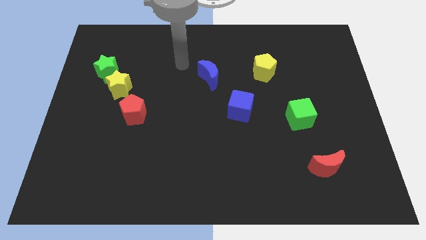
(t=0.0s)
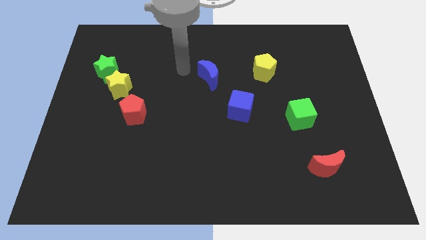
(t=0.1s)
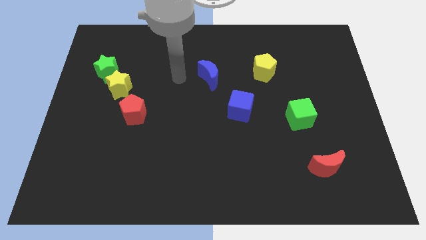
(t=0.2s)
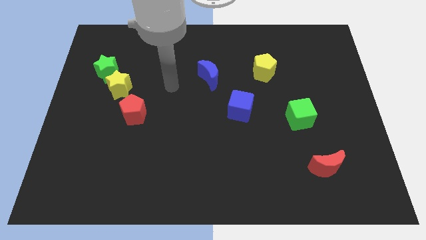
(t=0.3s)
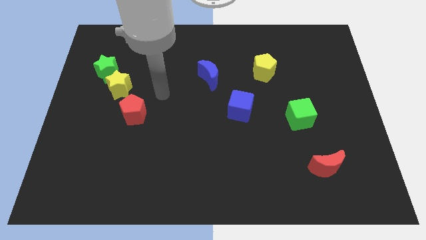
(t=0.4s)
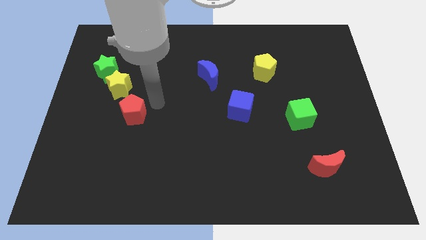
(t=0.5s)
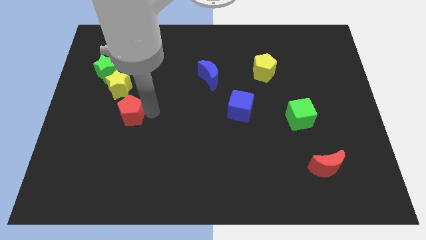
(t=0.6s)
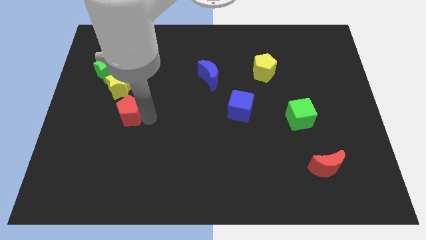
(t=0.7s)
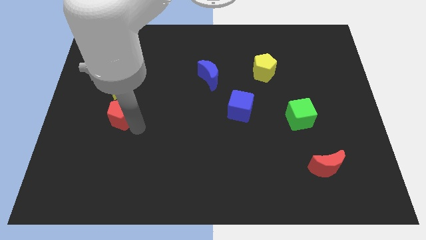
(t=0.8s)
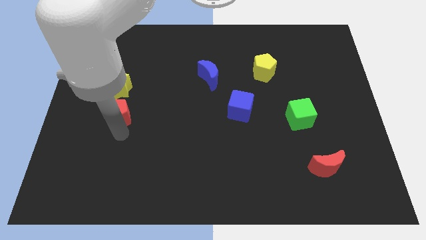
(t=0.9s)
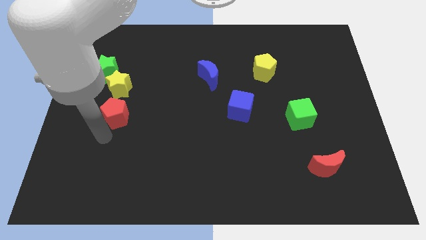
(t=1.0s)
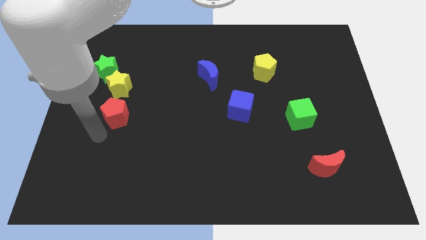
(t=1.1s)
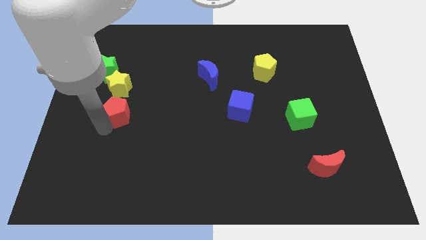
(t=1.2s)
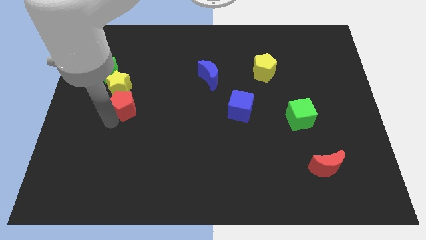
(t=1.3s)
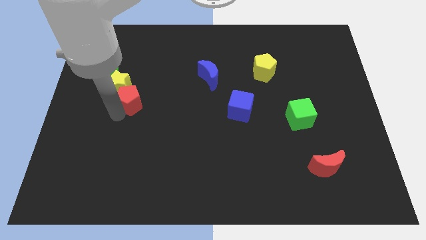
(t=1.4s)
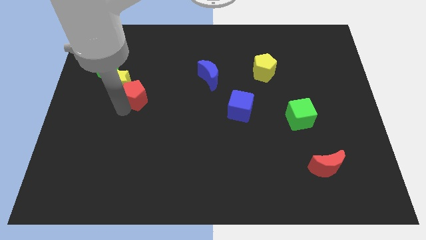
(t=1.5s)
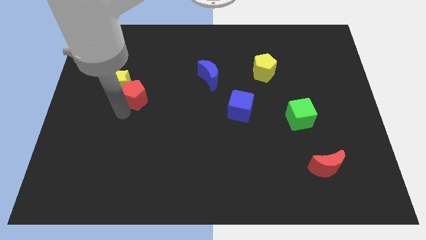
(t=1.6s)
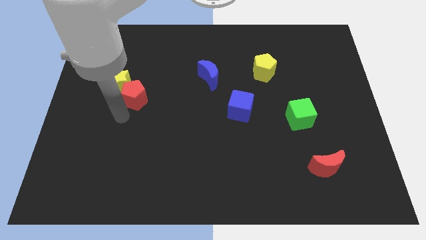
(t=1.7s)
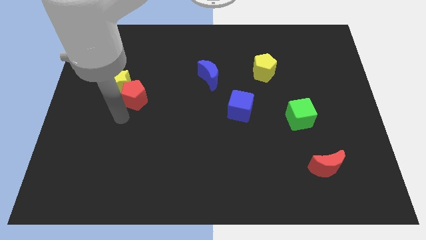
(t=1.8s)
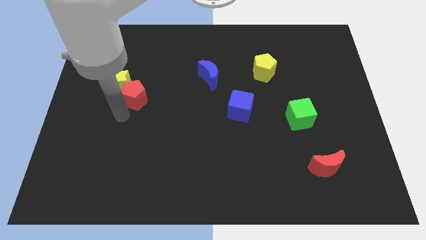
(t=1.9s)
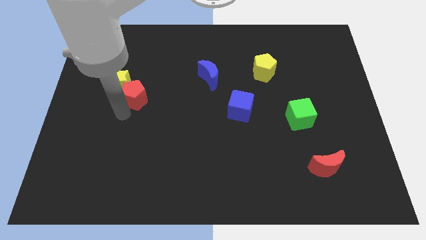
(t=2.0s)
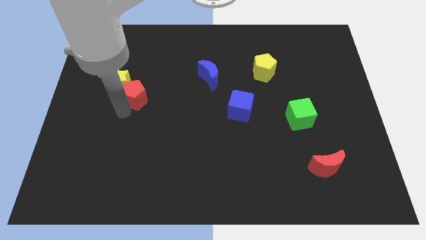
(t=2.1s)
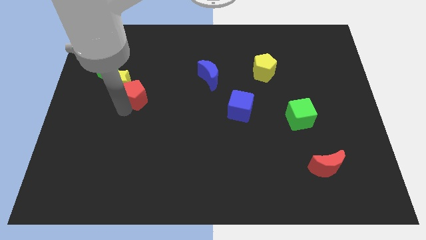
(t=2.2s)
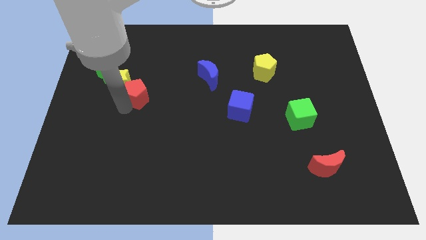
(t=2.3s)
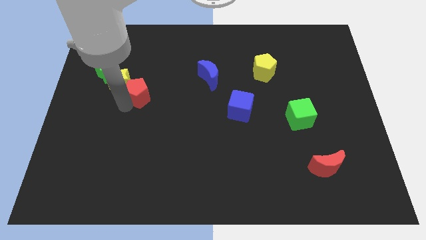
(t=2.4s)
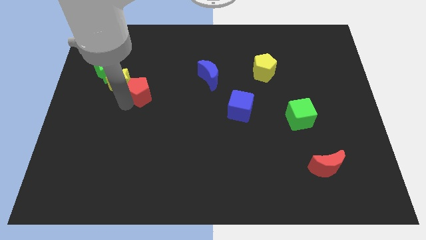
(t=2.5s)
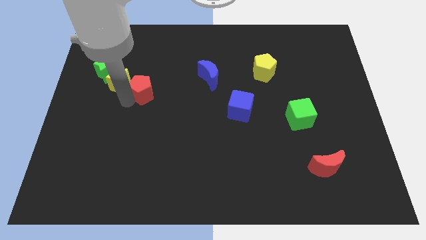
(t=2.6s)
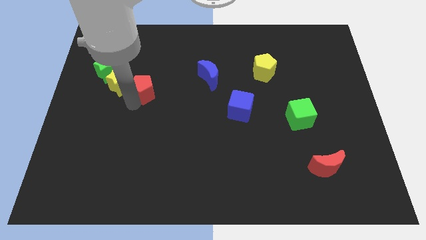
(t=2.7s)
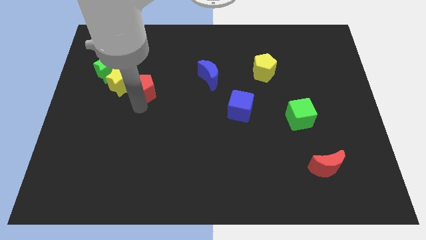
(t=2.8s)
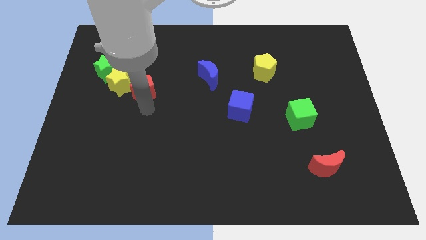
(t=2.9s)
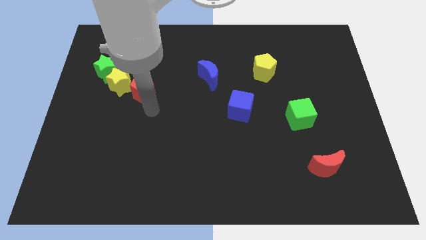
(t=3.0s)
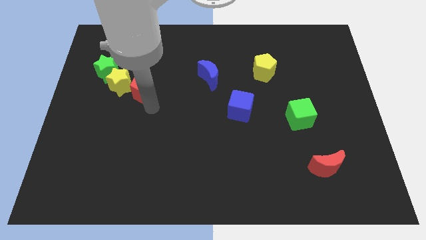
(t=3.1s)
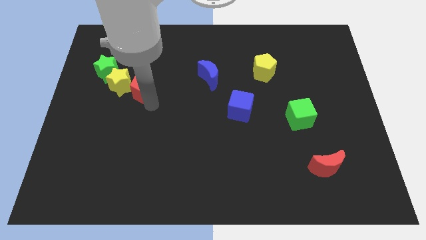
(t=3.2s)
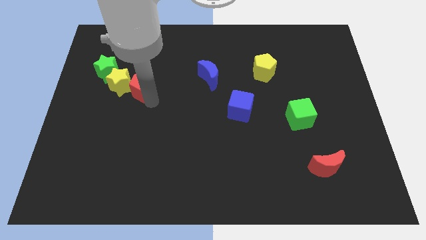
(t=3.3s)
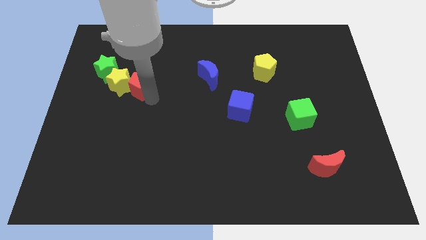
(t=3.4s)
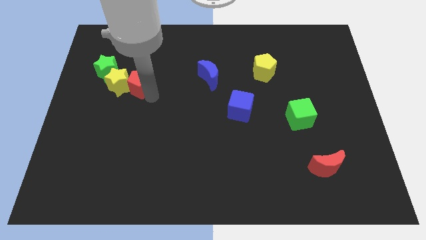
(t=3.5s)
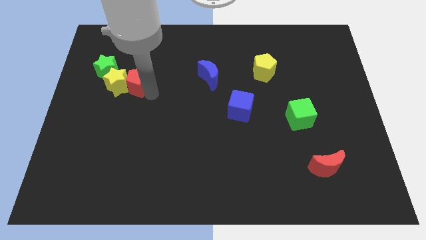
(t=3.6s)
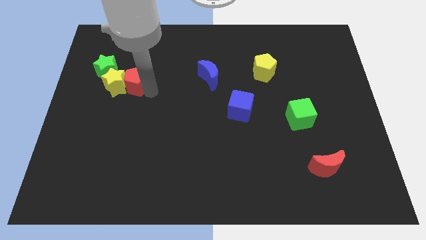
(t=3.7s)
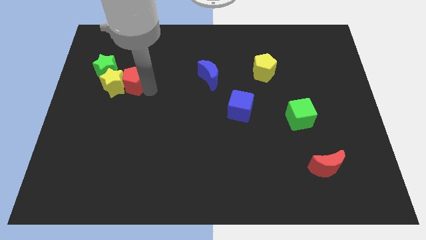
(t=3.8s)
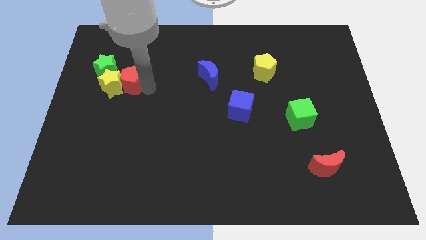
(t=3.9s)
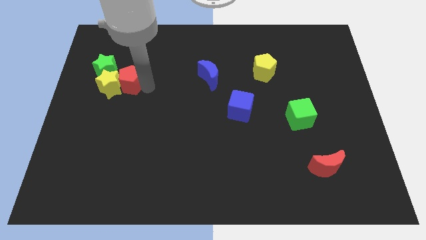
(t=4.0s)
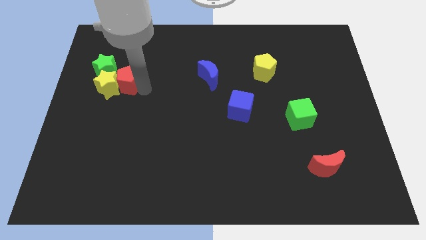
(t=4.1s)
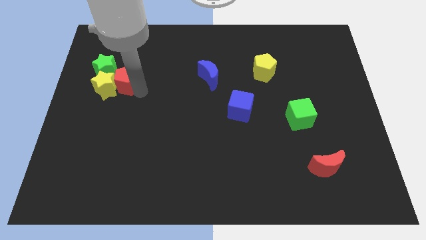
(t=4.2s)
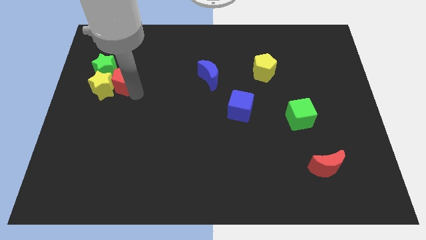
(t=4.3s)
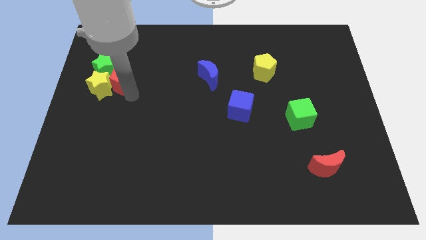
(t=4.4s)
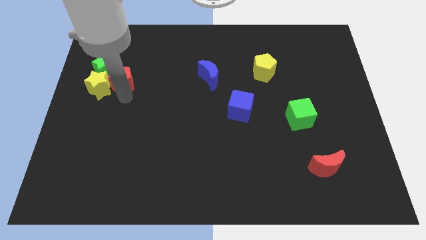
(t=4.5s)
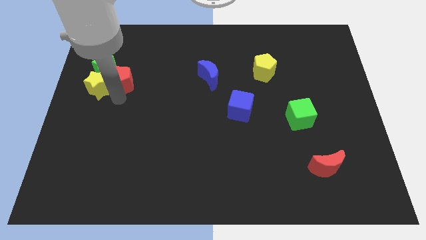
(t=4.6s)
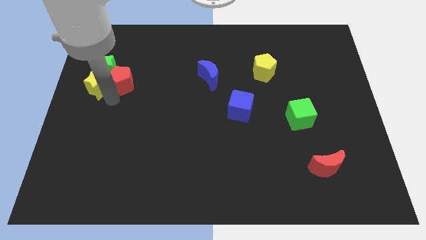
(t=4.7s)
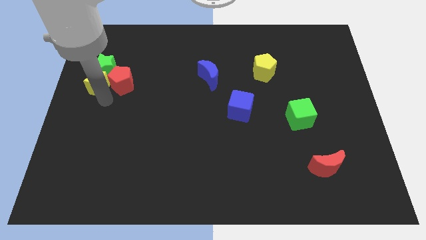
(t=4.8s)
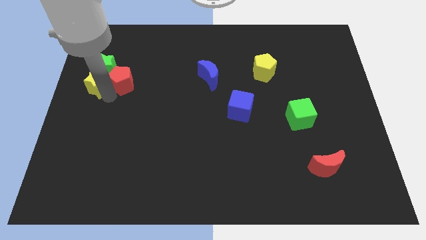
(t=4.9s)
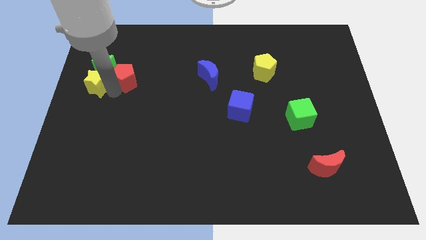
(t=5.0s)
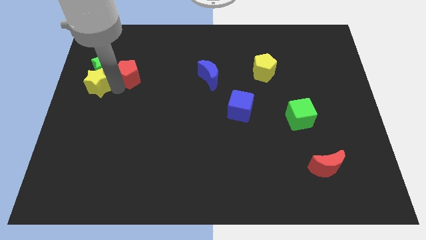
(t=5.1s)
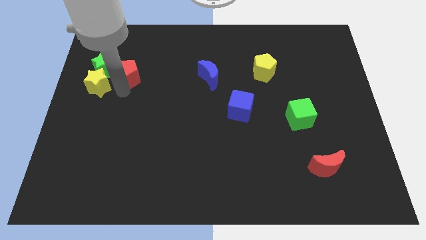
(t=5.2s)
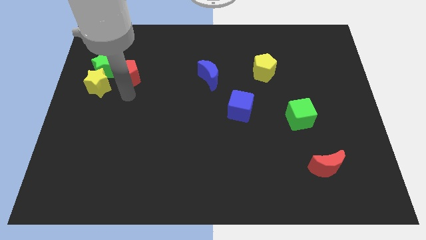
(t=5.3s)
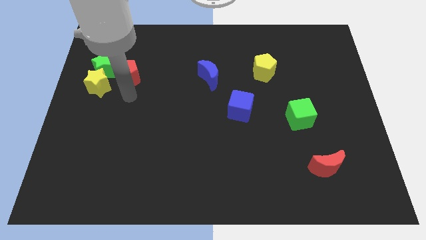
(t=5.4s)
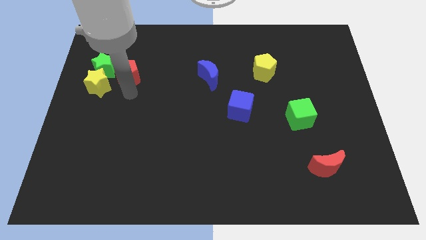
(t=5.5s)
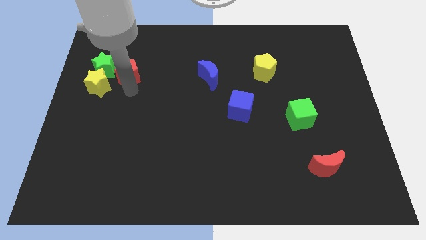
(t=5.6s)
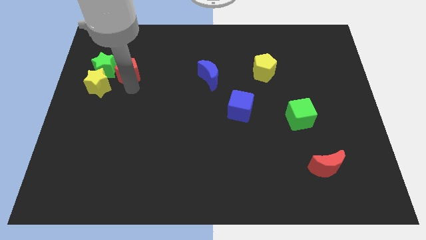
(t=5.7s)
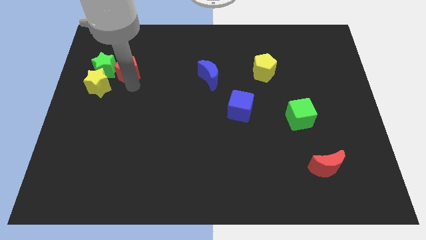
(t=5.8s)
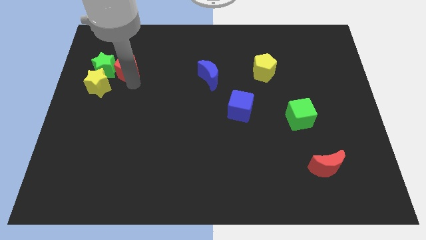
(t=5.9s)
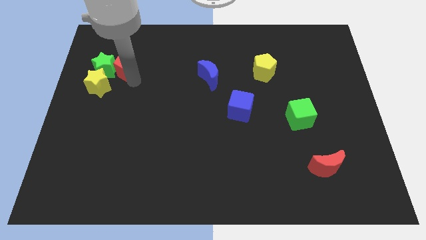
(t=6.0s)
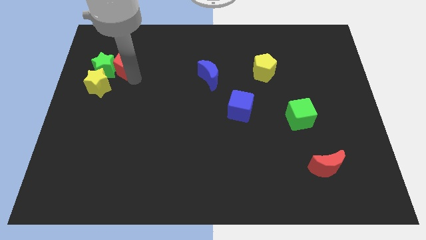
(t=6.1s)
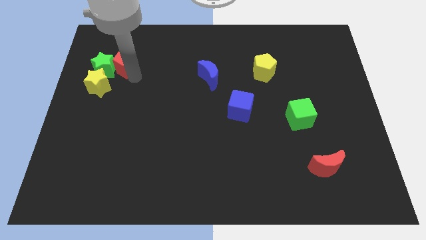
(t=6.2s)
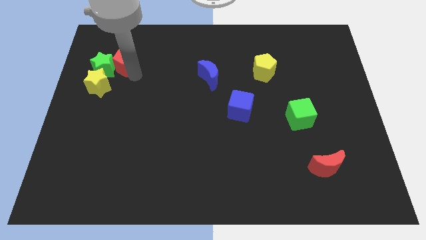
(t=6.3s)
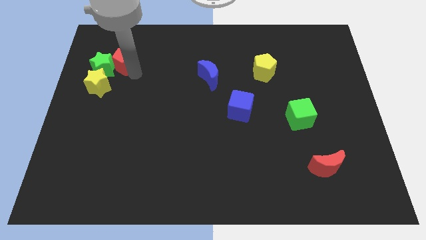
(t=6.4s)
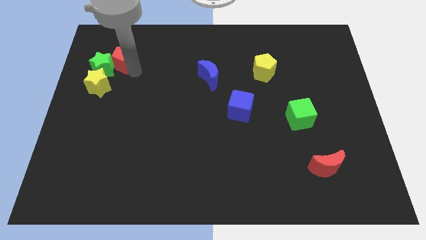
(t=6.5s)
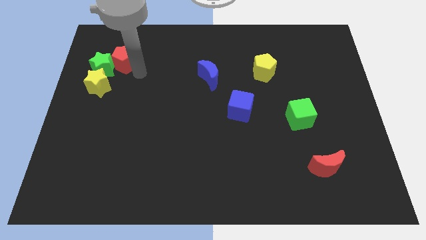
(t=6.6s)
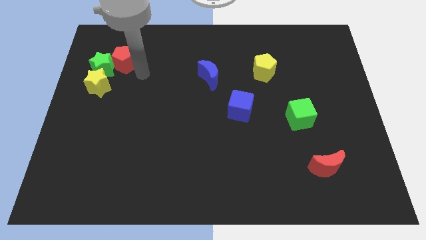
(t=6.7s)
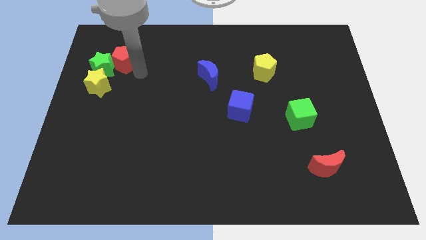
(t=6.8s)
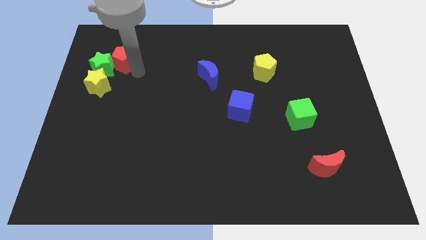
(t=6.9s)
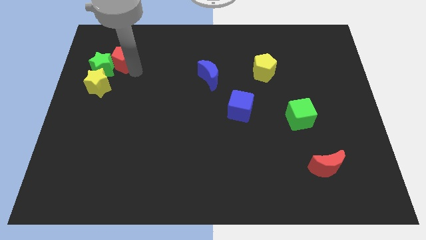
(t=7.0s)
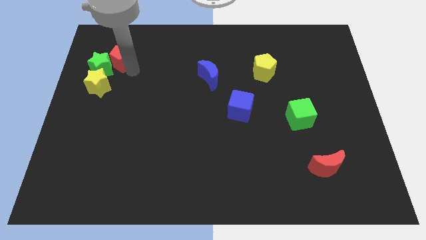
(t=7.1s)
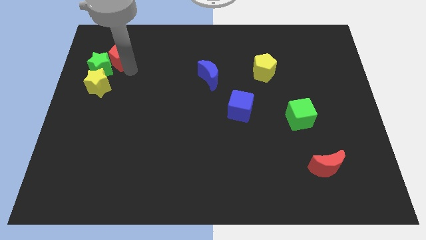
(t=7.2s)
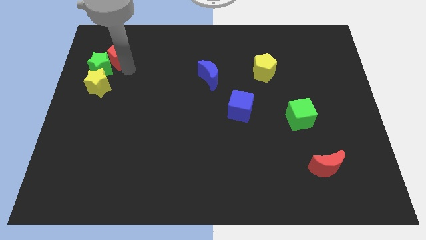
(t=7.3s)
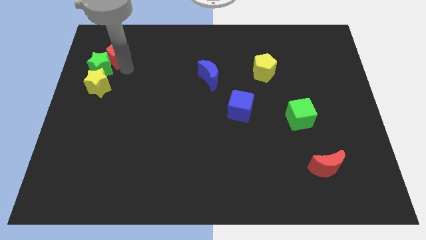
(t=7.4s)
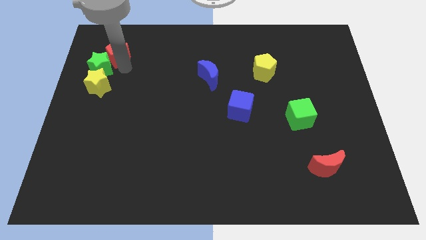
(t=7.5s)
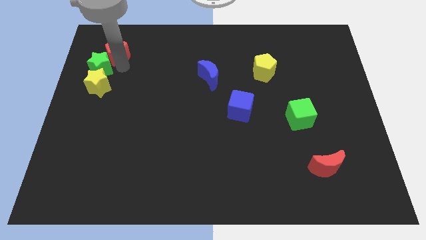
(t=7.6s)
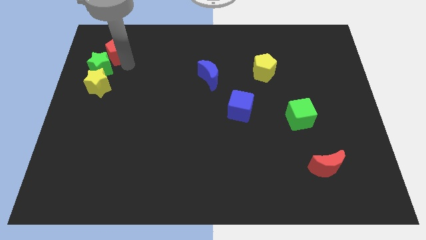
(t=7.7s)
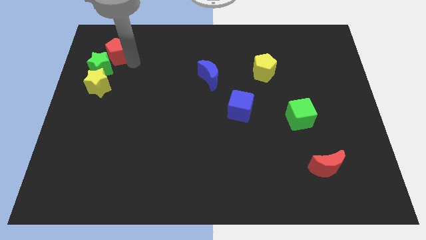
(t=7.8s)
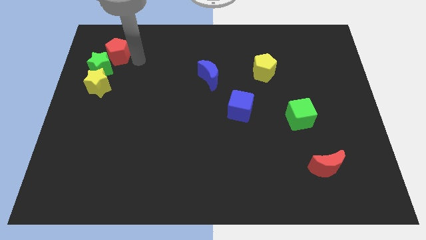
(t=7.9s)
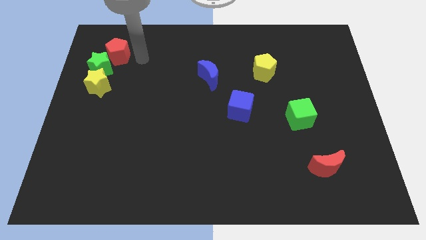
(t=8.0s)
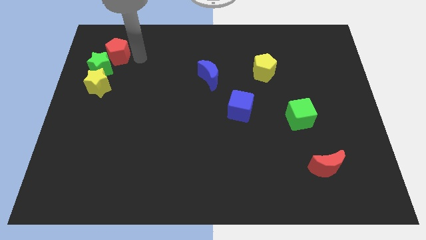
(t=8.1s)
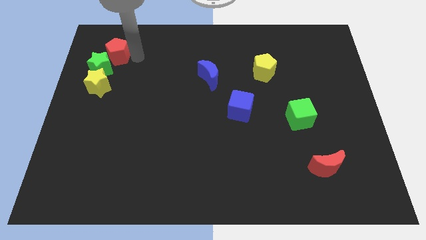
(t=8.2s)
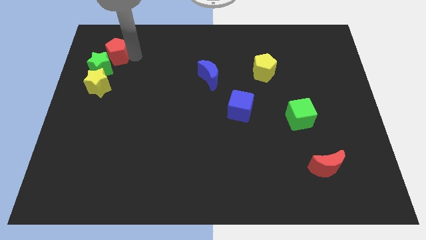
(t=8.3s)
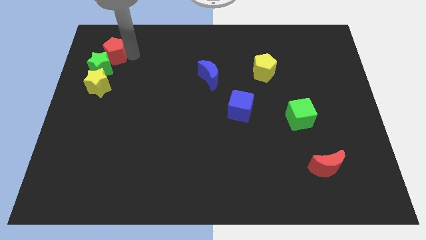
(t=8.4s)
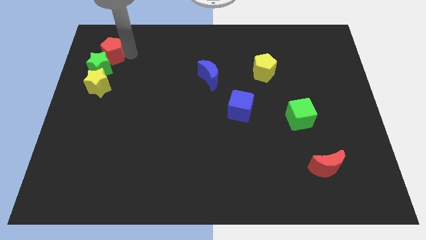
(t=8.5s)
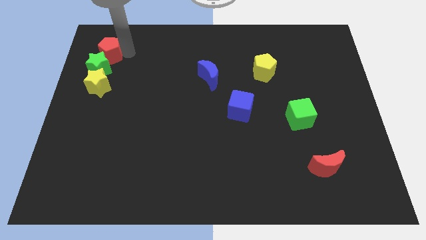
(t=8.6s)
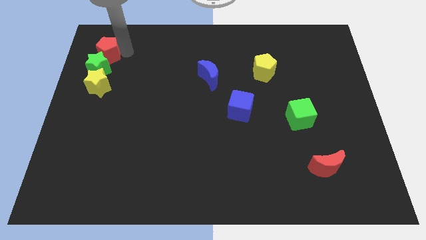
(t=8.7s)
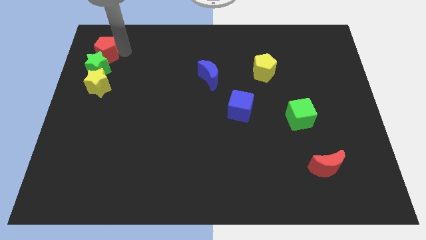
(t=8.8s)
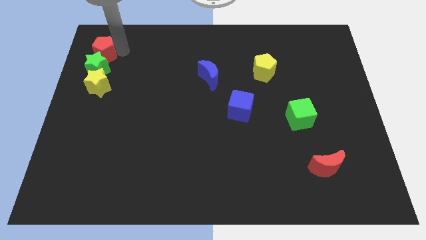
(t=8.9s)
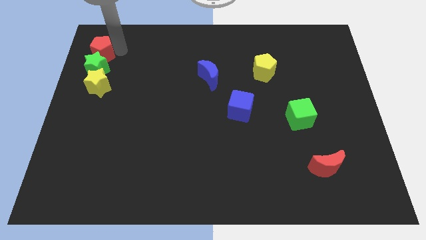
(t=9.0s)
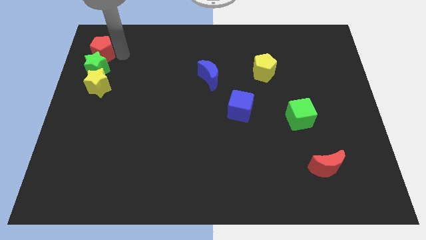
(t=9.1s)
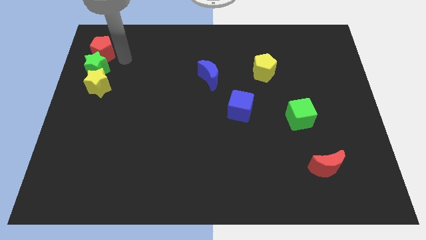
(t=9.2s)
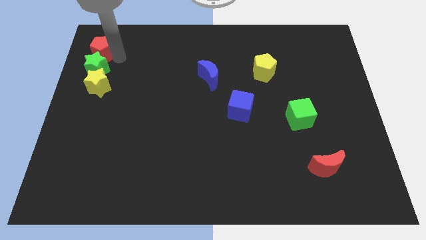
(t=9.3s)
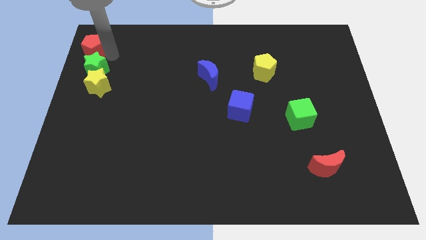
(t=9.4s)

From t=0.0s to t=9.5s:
put the red pentagon to the top left of the board
